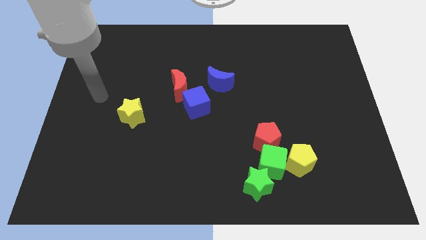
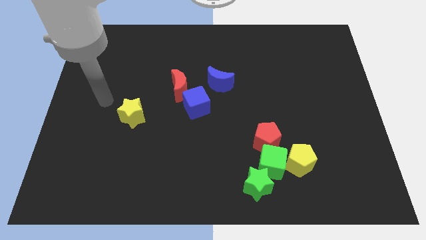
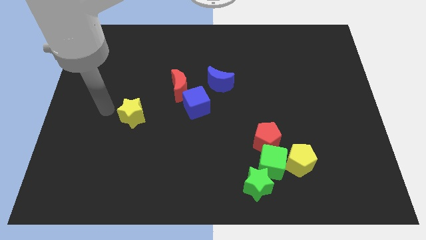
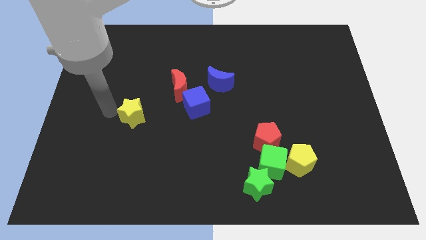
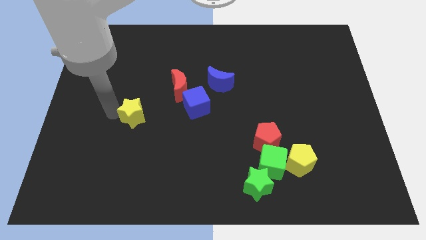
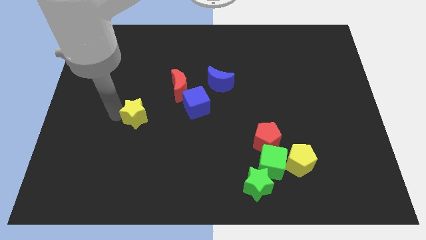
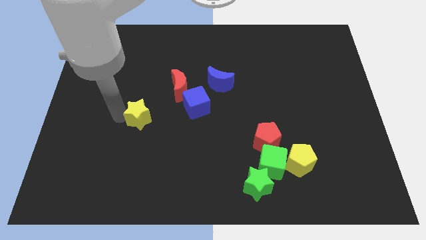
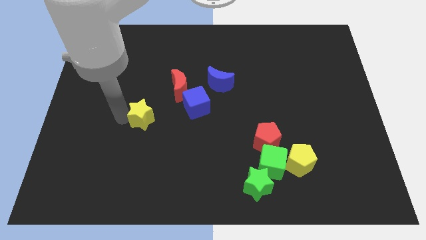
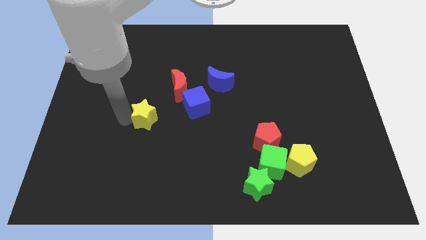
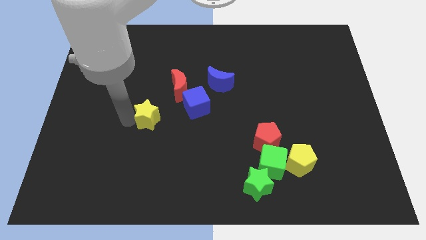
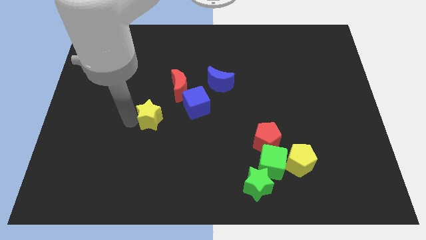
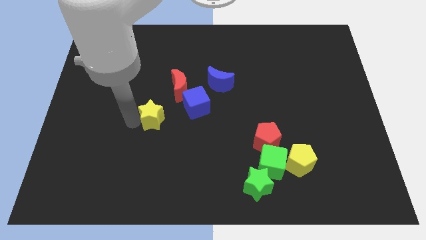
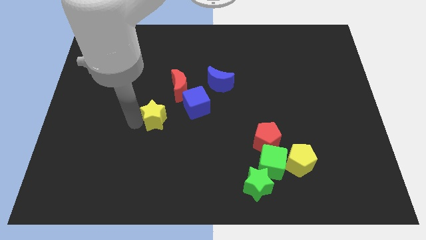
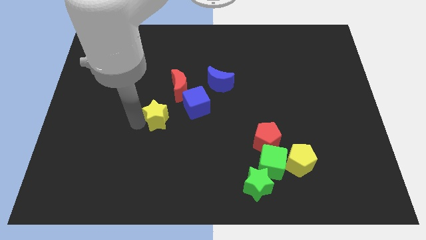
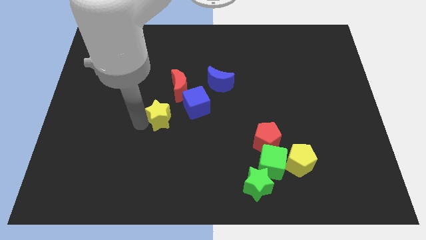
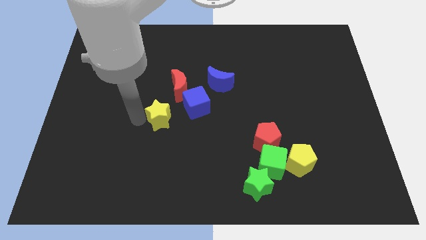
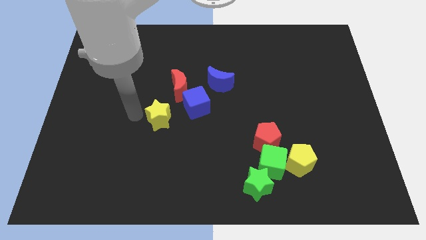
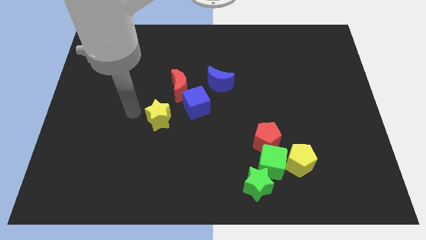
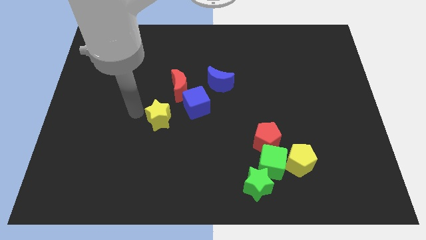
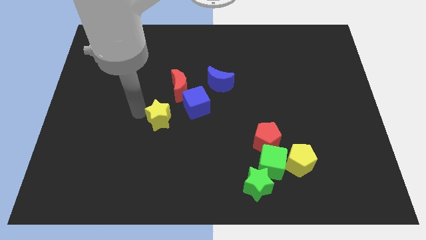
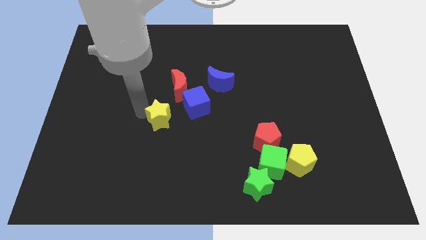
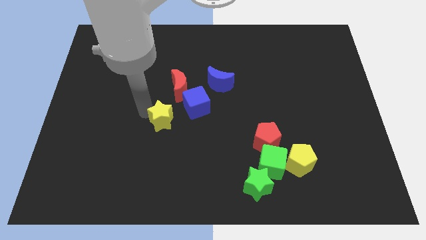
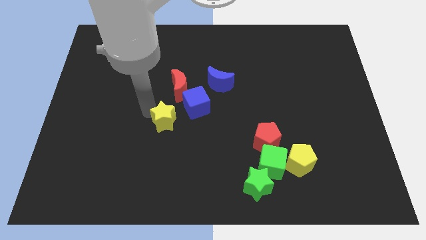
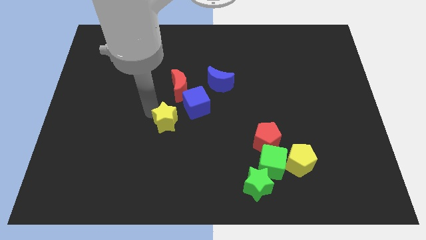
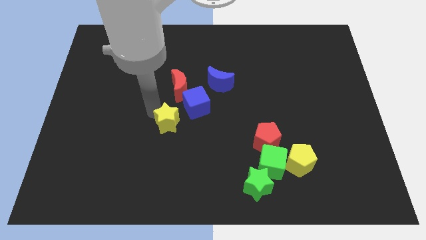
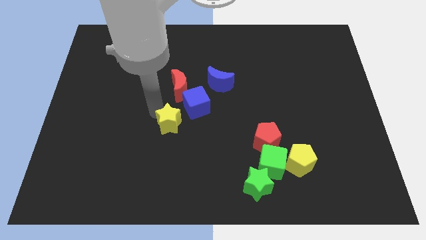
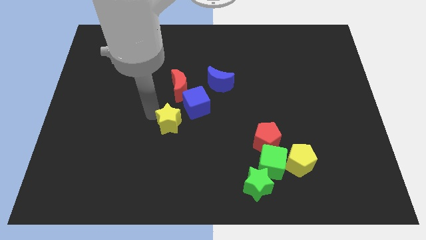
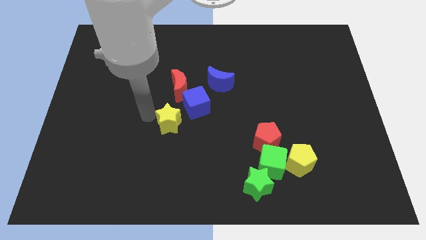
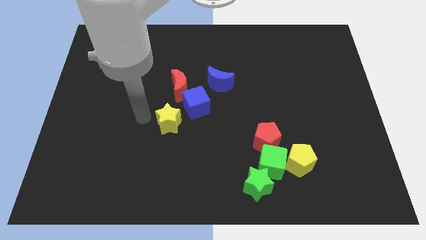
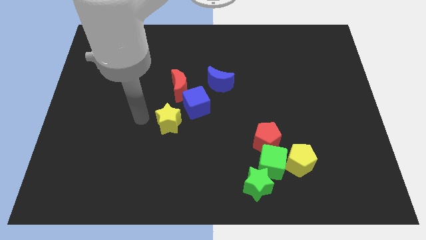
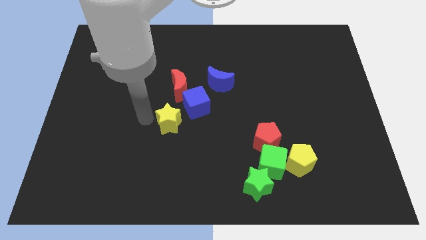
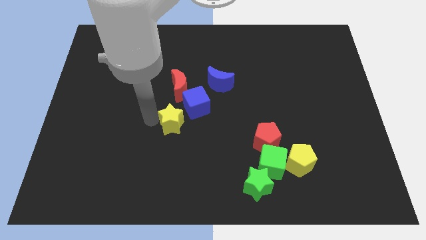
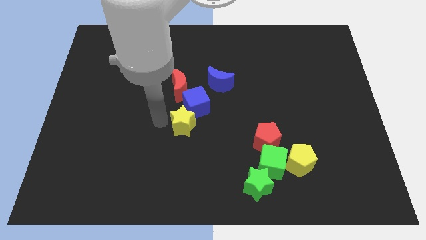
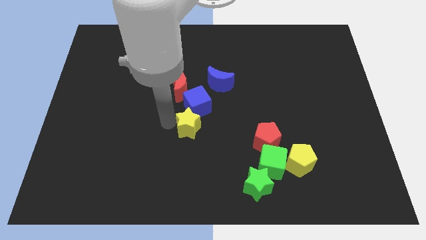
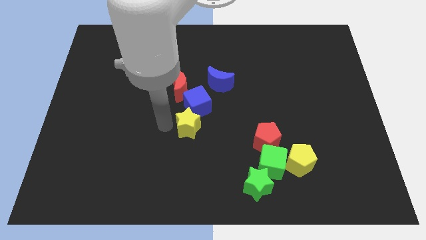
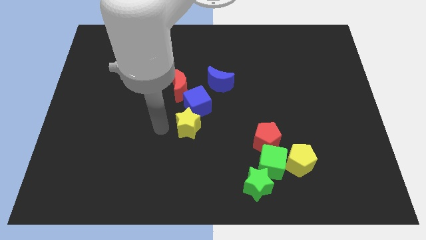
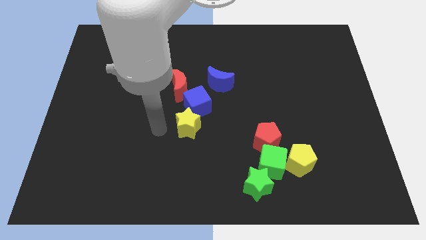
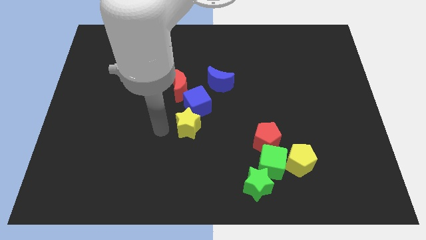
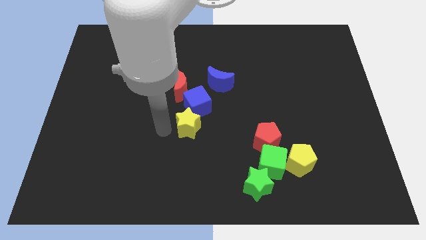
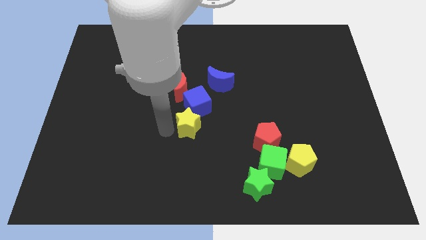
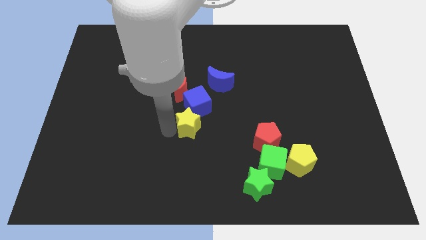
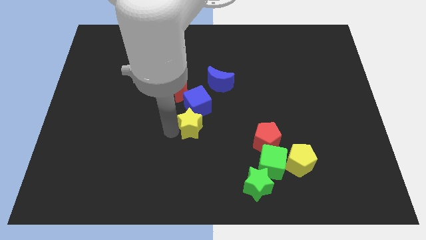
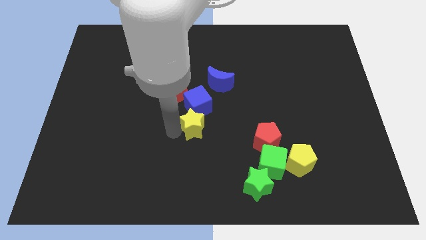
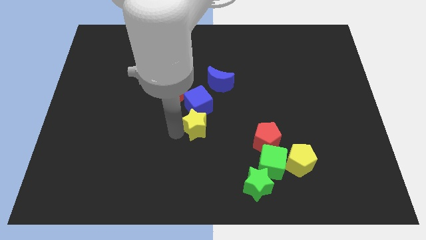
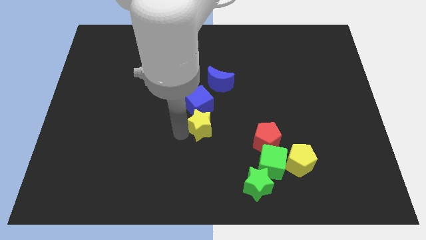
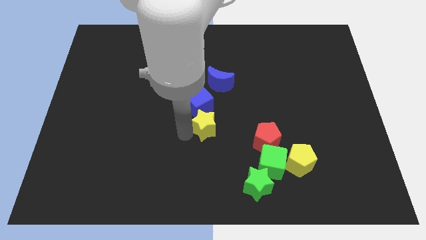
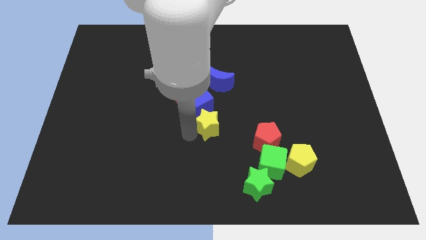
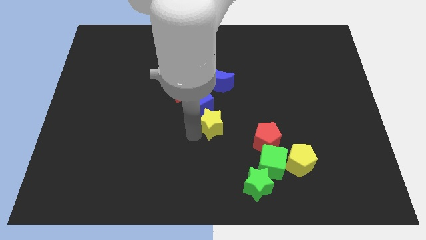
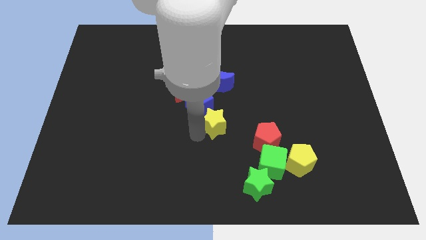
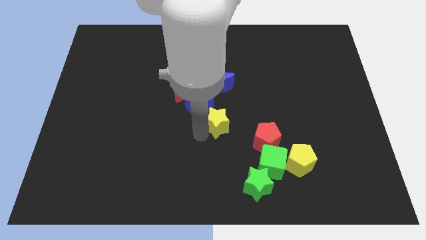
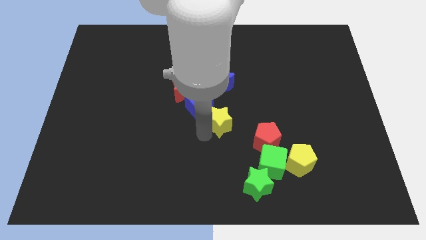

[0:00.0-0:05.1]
slide the yellow star to the right

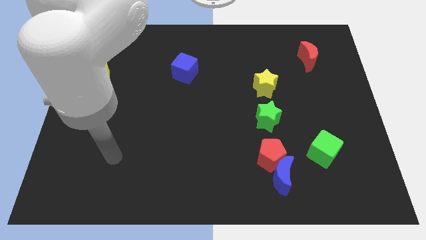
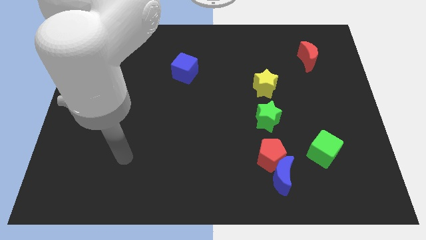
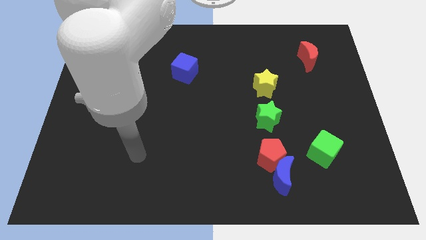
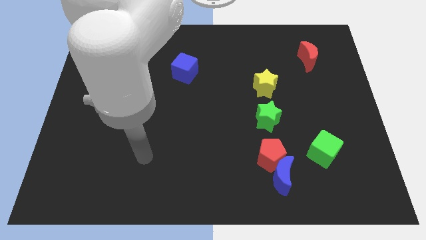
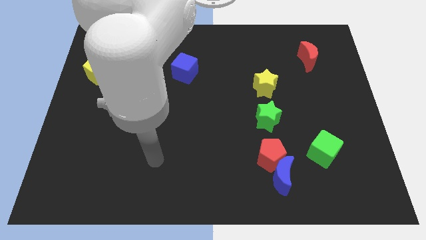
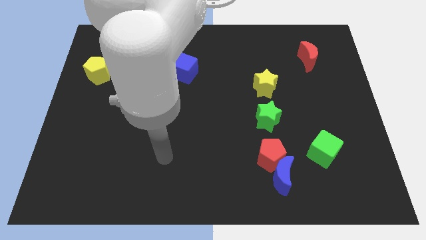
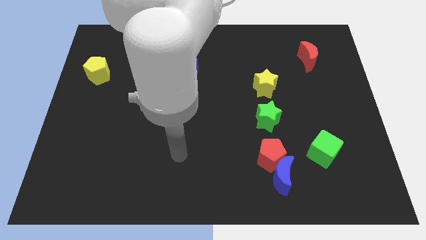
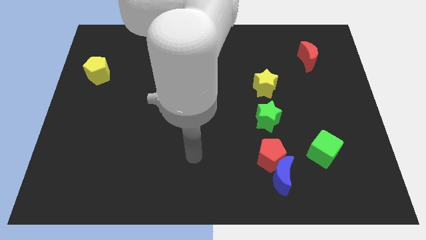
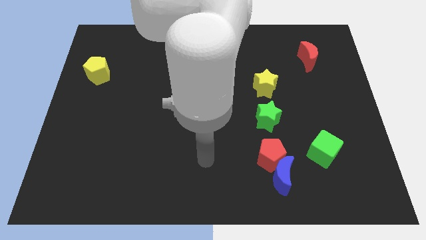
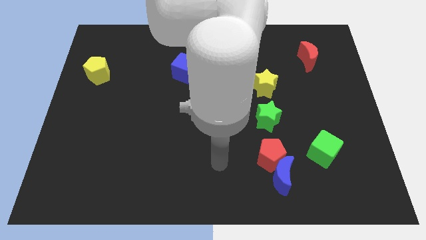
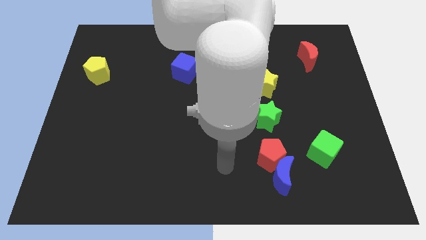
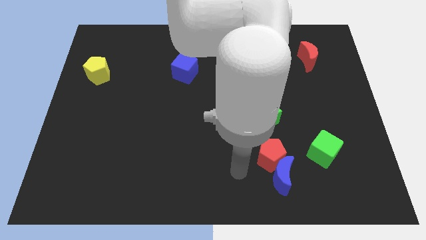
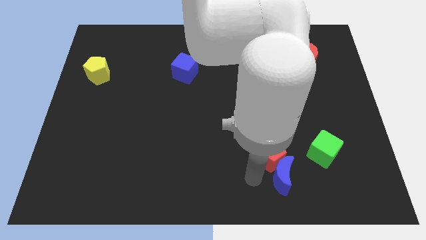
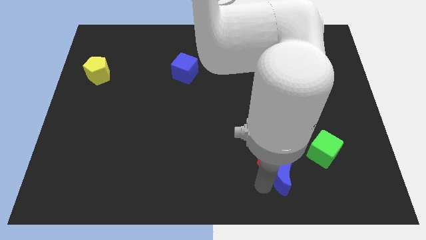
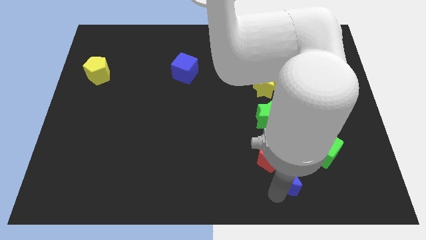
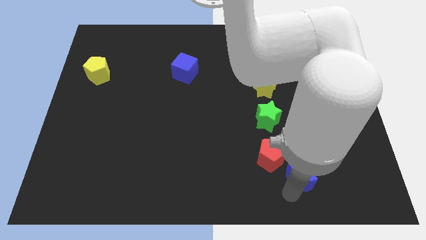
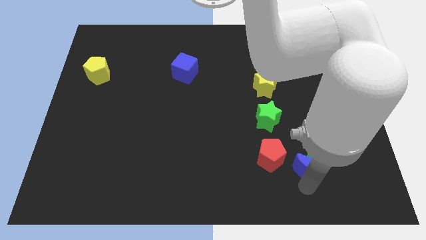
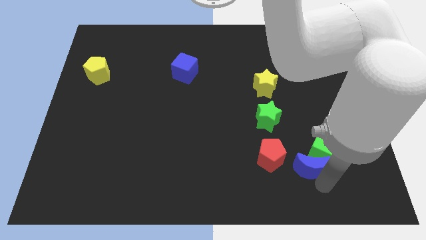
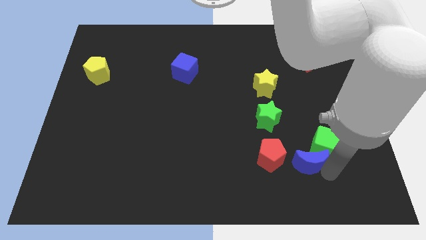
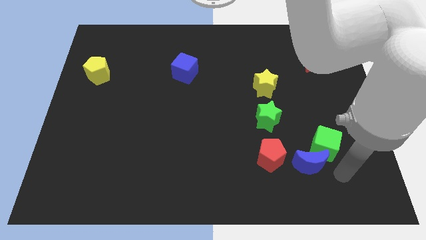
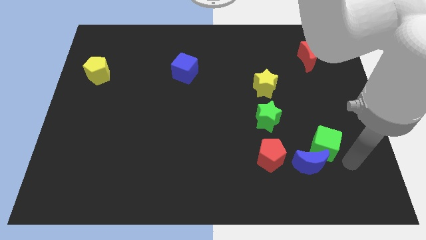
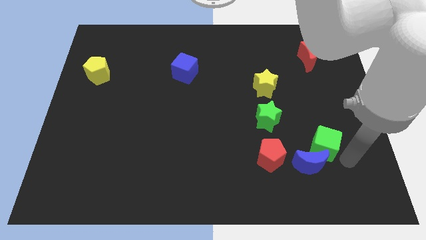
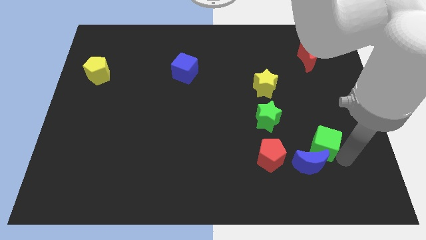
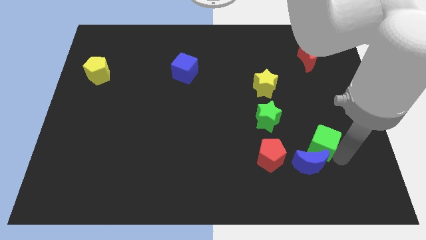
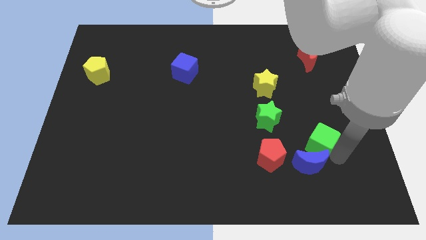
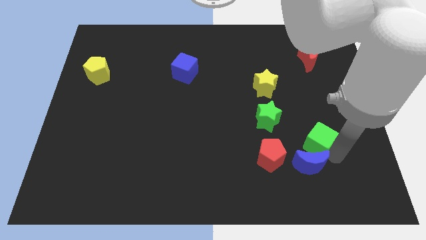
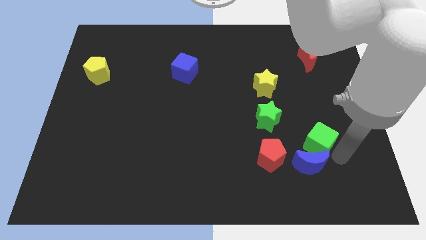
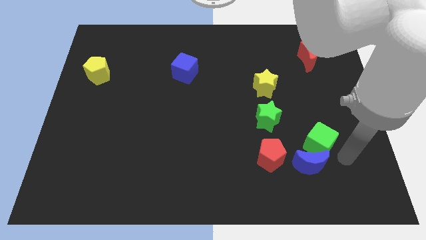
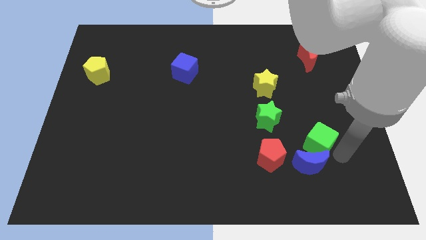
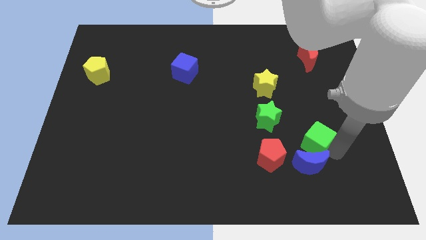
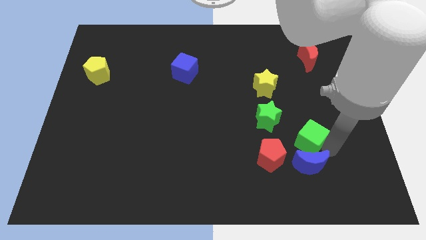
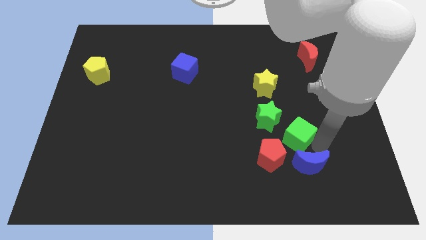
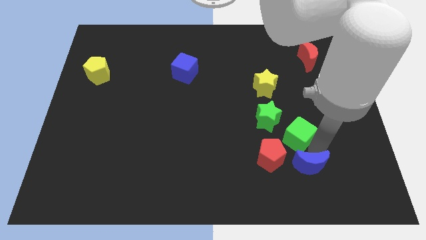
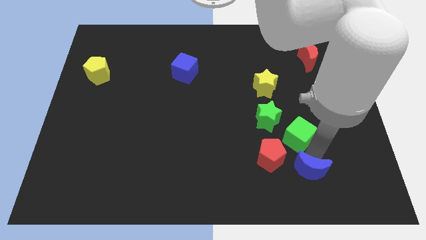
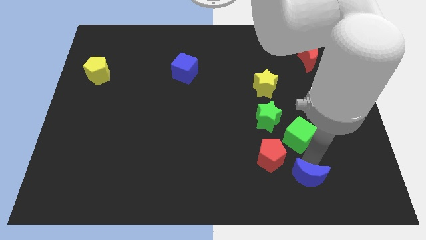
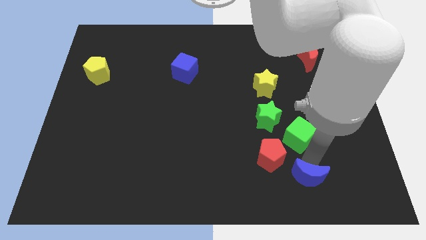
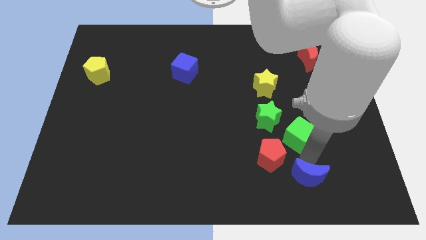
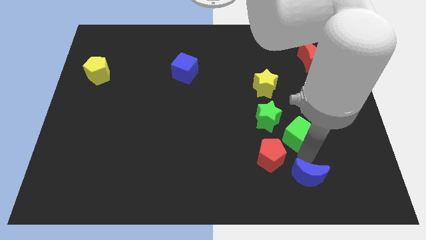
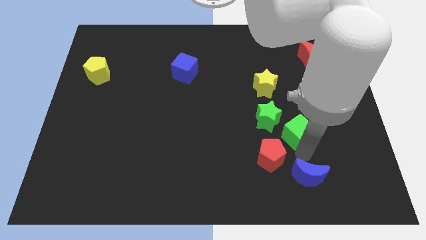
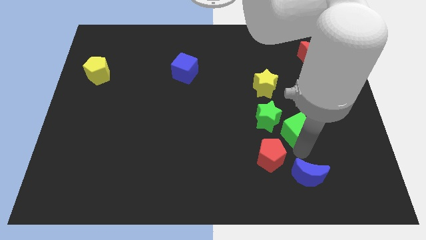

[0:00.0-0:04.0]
slide the green cube a little upwards and left
